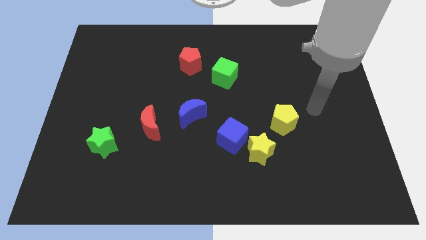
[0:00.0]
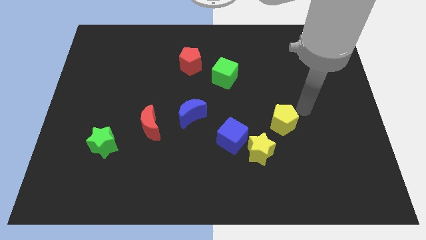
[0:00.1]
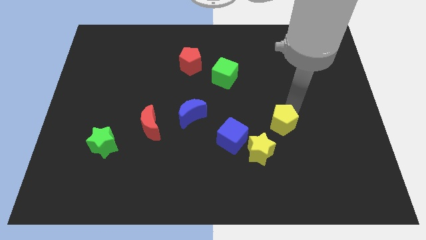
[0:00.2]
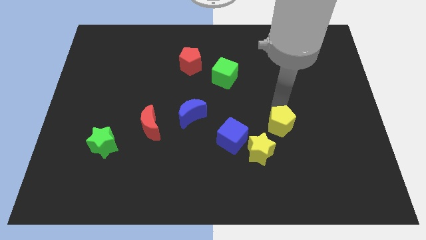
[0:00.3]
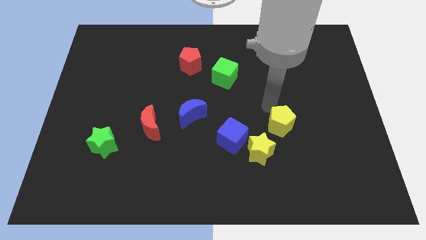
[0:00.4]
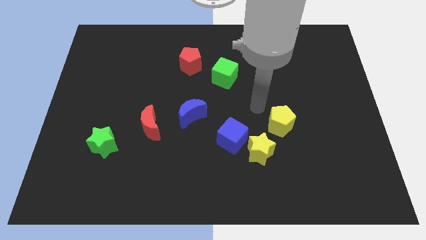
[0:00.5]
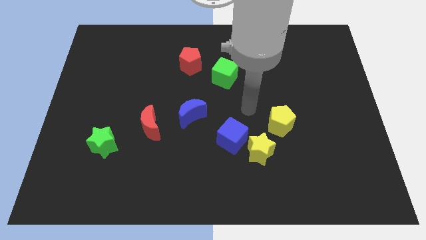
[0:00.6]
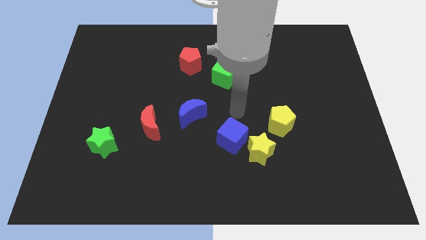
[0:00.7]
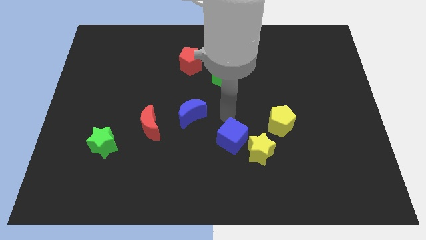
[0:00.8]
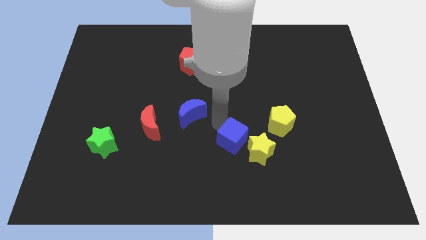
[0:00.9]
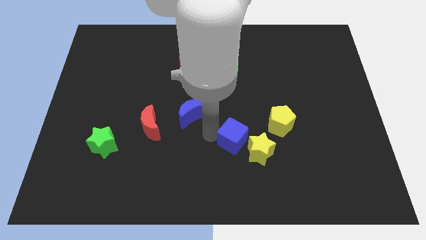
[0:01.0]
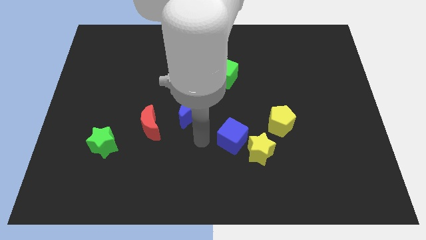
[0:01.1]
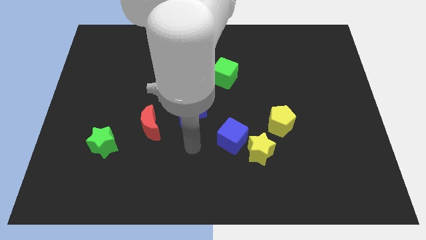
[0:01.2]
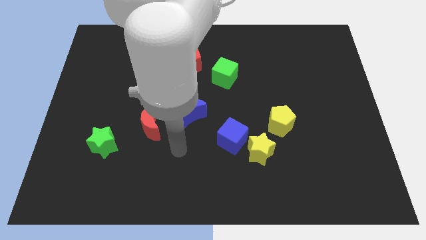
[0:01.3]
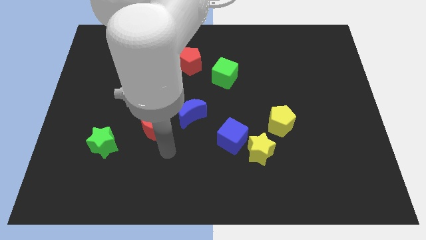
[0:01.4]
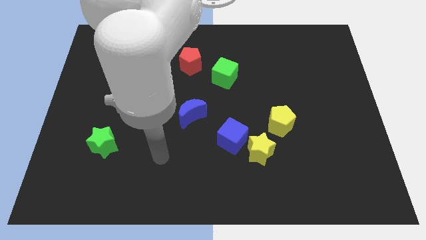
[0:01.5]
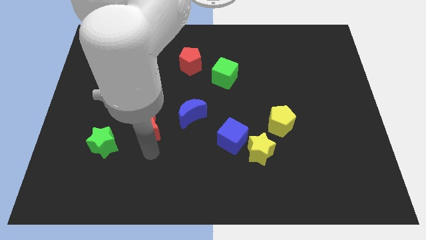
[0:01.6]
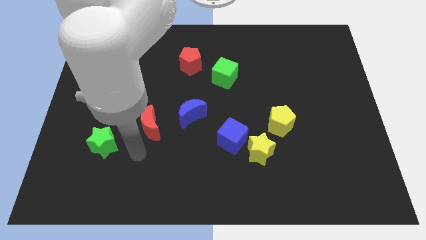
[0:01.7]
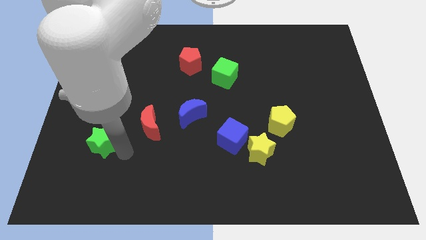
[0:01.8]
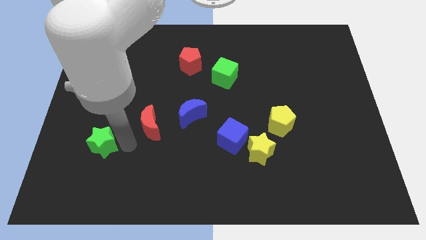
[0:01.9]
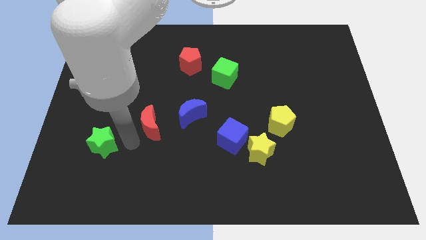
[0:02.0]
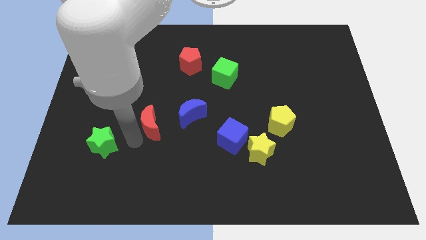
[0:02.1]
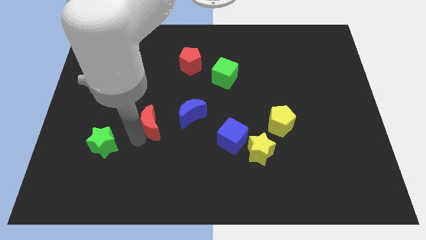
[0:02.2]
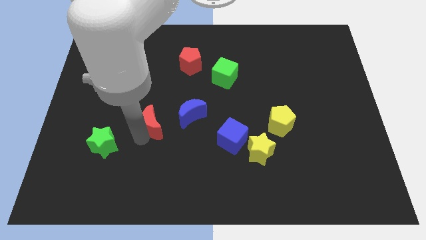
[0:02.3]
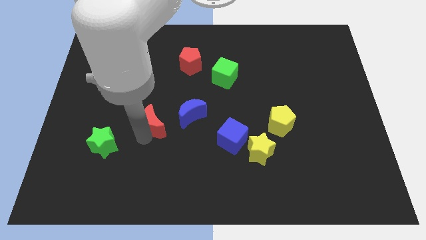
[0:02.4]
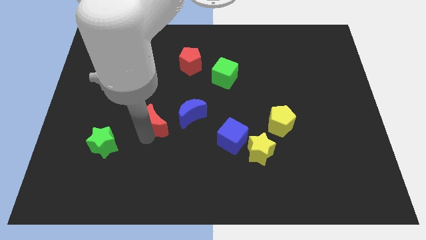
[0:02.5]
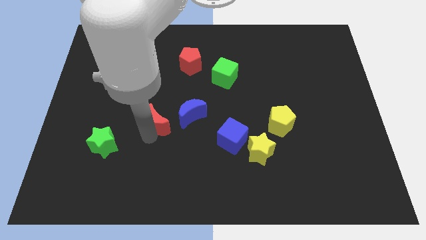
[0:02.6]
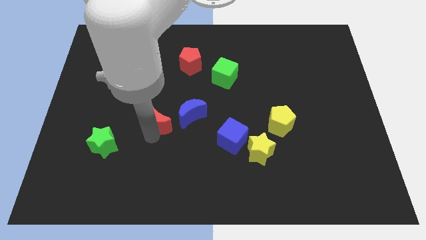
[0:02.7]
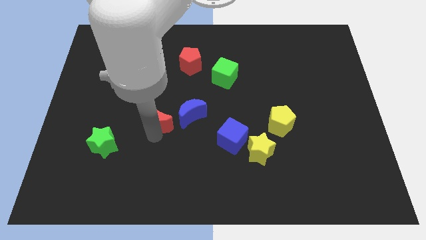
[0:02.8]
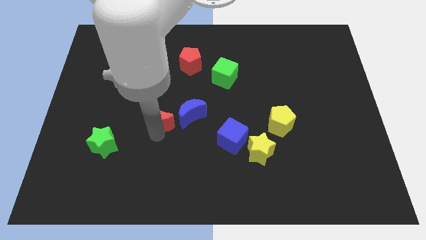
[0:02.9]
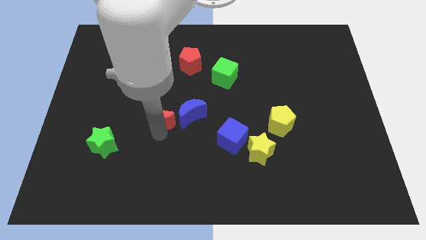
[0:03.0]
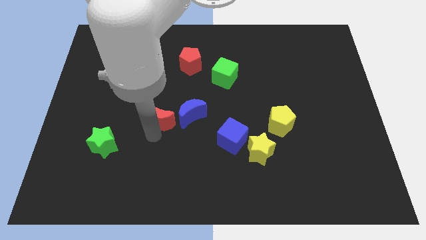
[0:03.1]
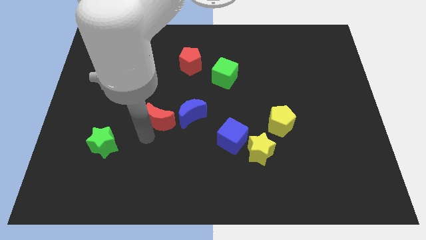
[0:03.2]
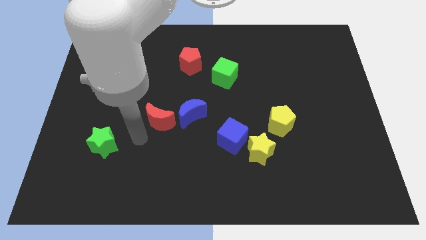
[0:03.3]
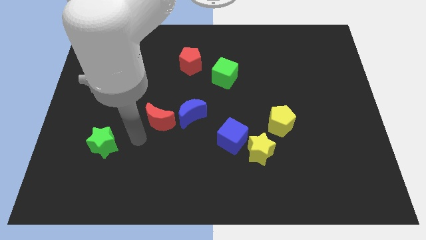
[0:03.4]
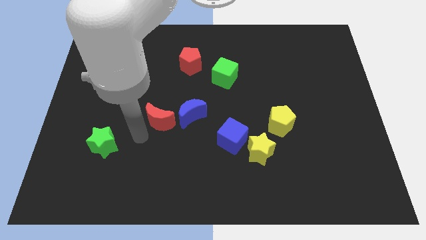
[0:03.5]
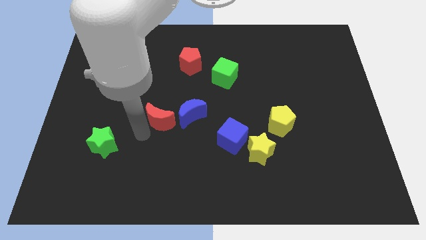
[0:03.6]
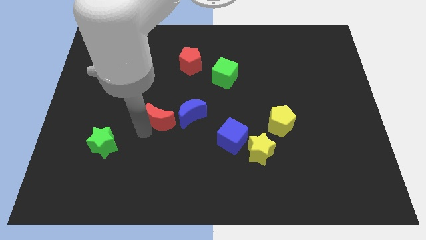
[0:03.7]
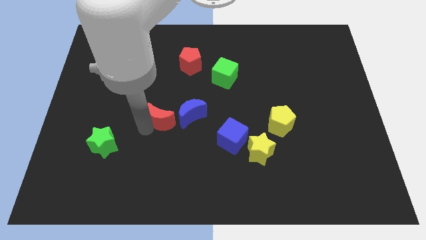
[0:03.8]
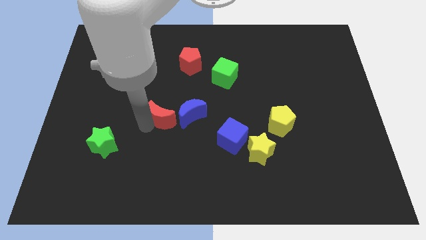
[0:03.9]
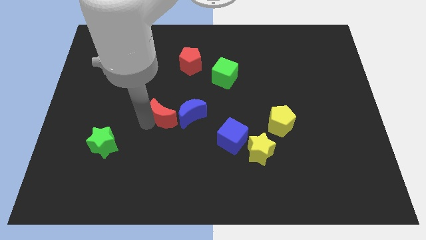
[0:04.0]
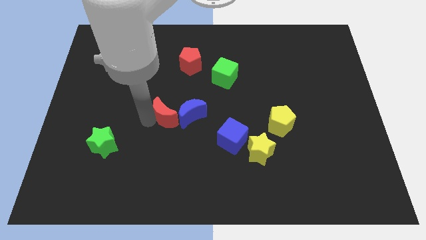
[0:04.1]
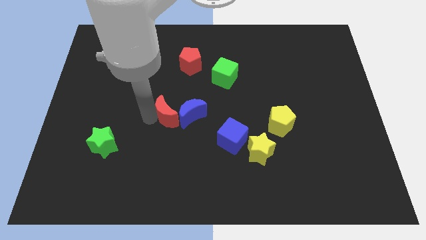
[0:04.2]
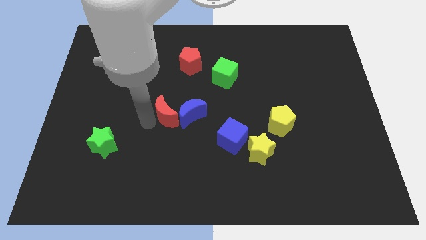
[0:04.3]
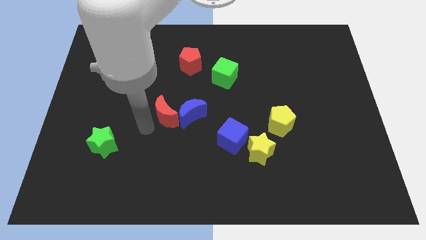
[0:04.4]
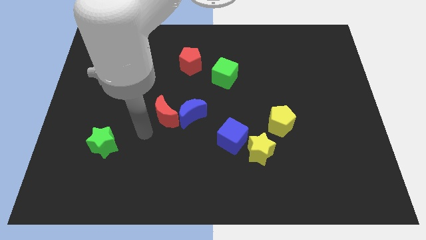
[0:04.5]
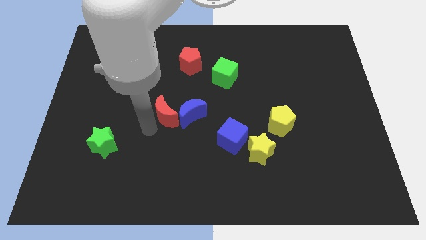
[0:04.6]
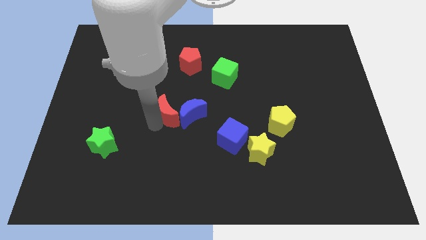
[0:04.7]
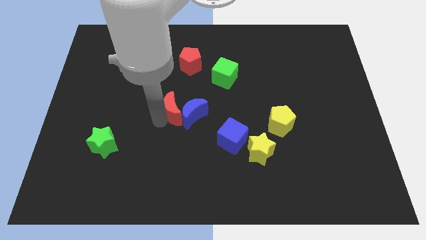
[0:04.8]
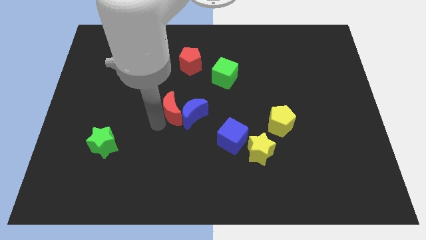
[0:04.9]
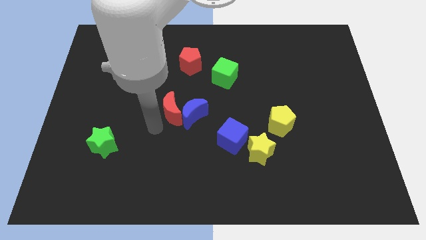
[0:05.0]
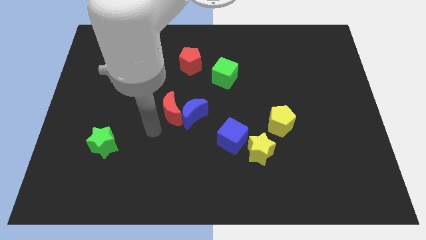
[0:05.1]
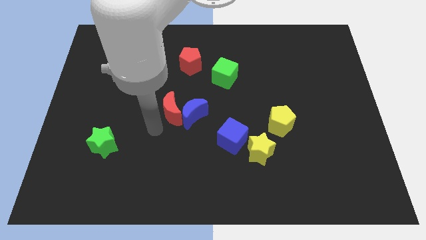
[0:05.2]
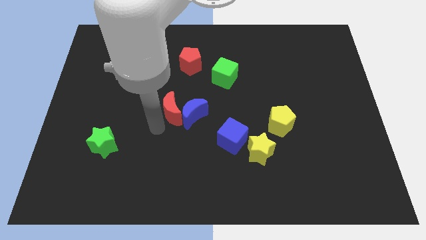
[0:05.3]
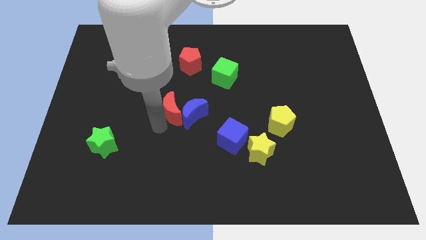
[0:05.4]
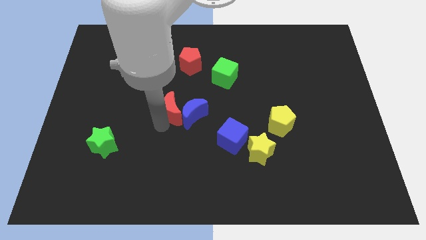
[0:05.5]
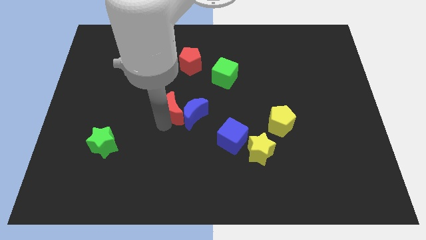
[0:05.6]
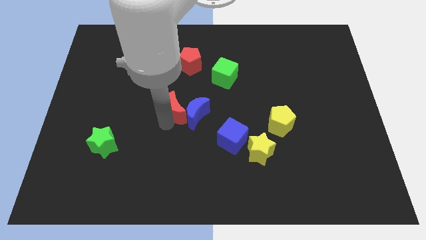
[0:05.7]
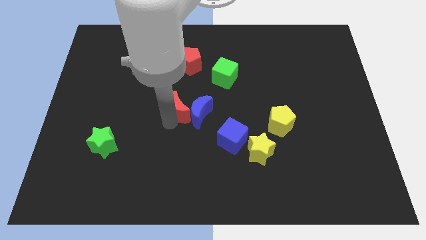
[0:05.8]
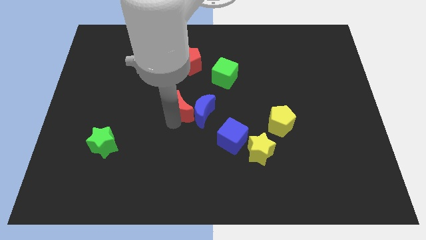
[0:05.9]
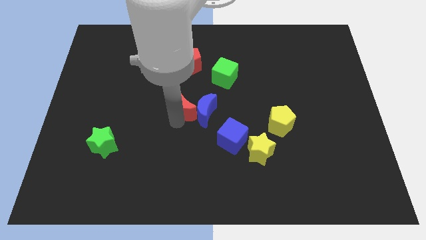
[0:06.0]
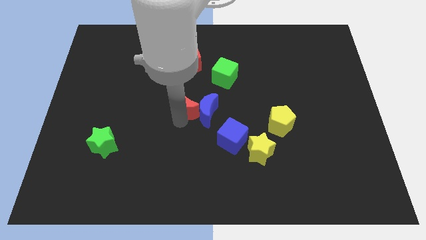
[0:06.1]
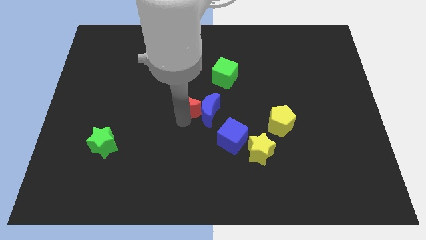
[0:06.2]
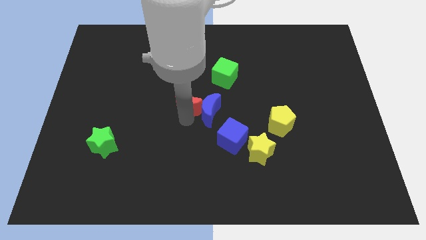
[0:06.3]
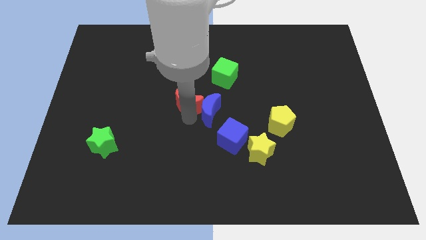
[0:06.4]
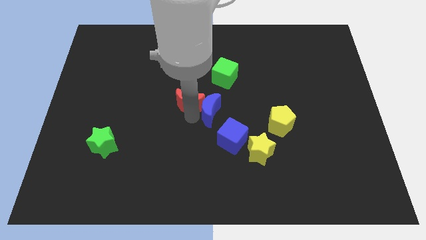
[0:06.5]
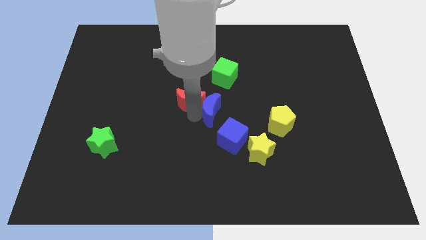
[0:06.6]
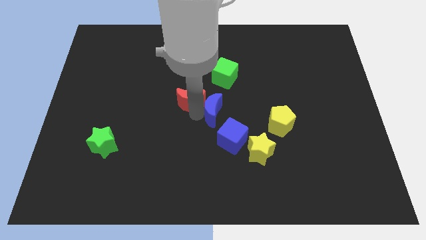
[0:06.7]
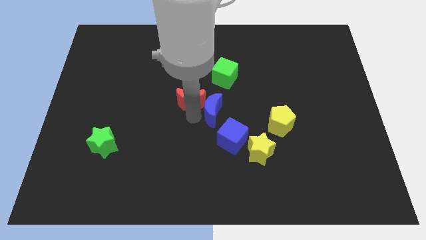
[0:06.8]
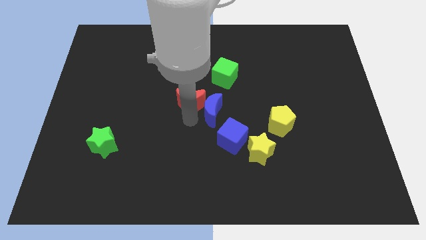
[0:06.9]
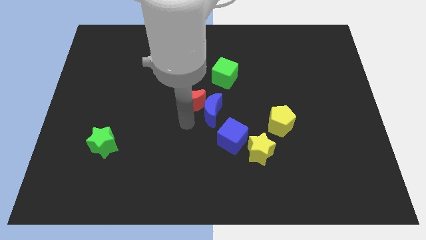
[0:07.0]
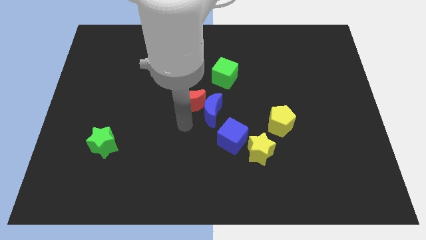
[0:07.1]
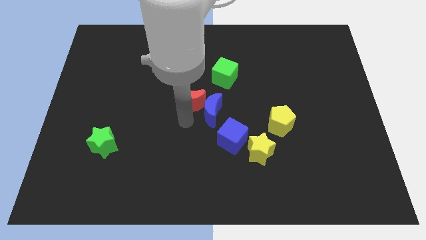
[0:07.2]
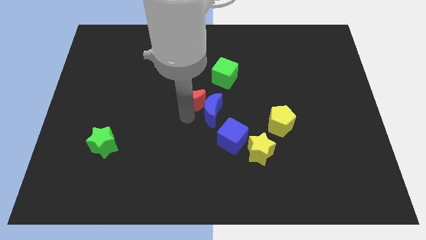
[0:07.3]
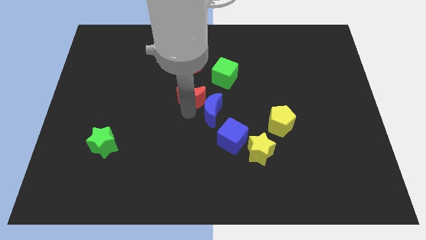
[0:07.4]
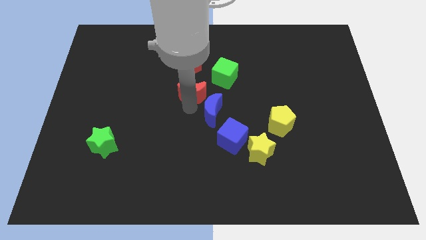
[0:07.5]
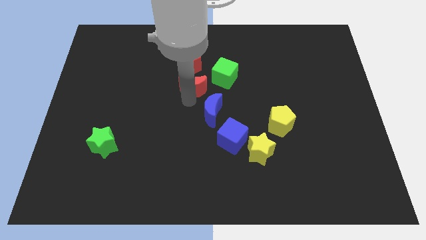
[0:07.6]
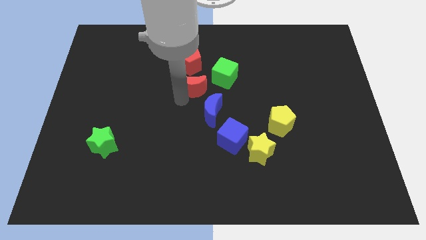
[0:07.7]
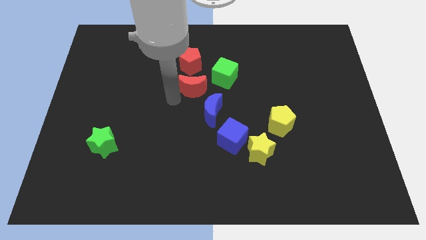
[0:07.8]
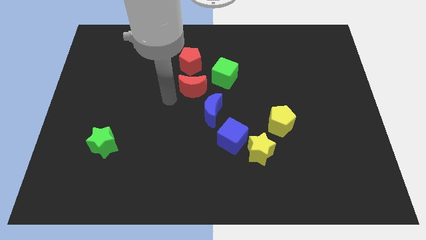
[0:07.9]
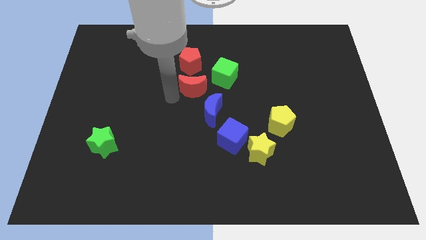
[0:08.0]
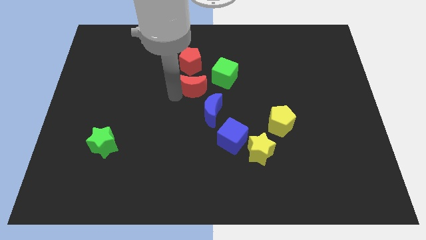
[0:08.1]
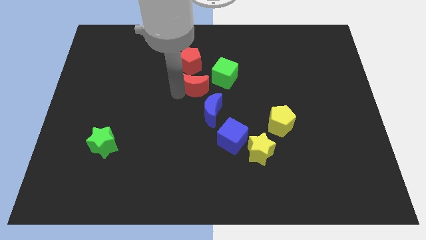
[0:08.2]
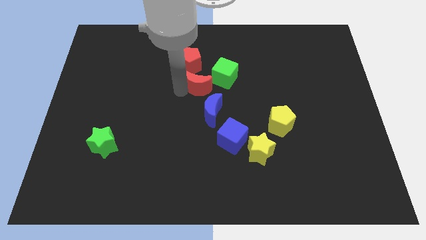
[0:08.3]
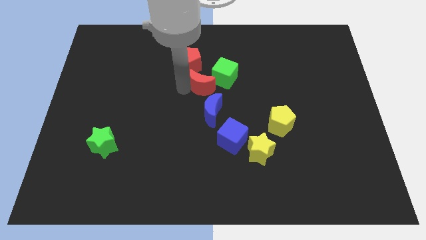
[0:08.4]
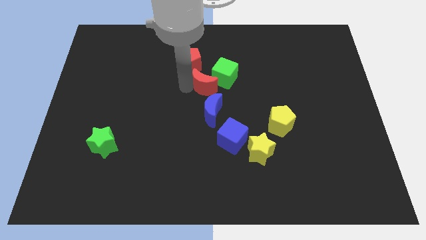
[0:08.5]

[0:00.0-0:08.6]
move the red moon close to the green cube
